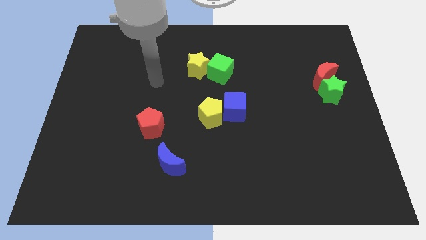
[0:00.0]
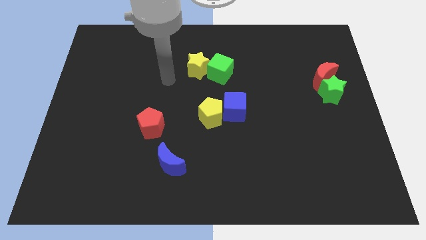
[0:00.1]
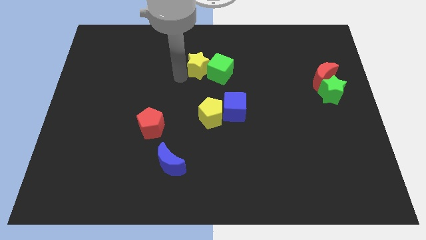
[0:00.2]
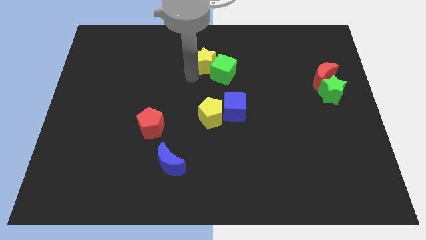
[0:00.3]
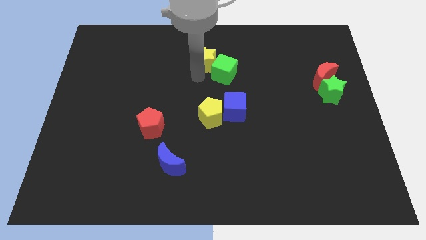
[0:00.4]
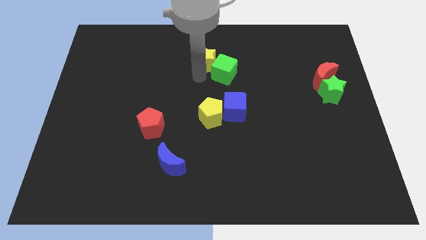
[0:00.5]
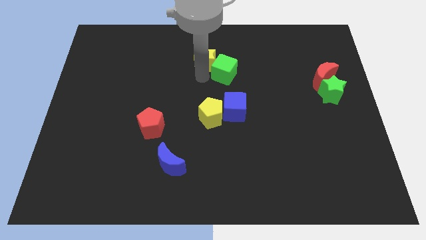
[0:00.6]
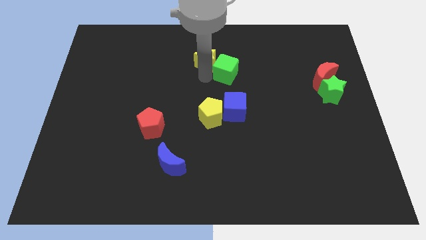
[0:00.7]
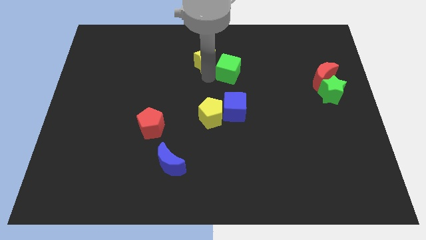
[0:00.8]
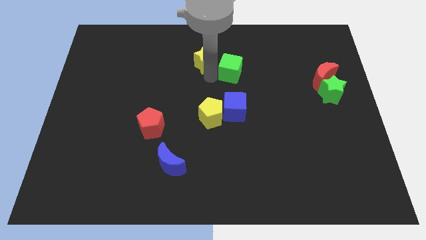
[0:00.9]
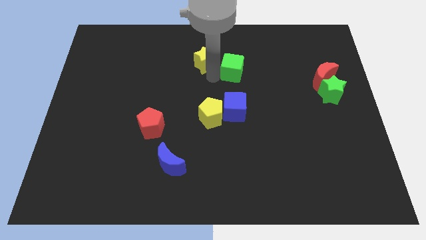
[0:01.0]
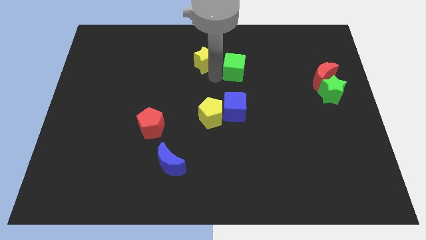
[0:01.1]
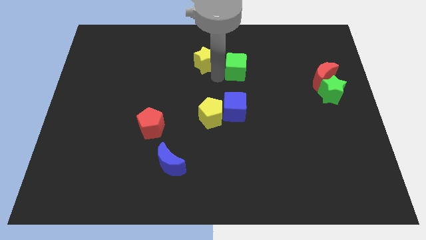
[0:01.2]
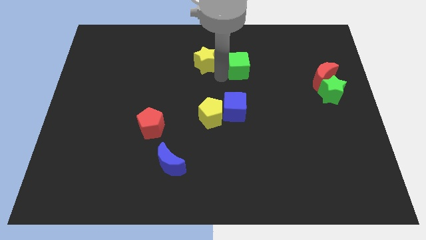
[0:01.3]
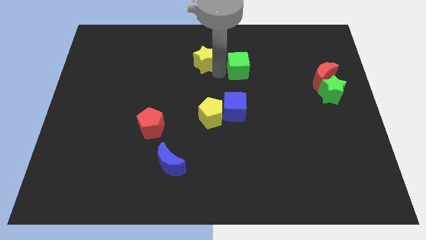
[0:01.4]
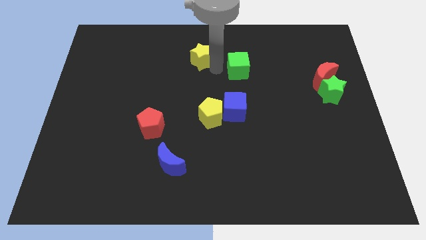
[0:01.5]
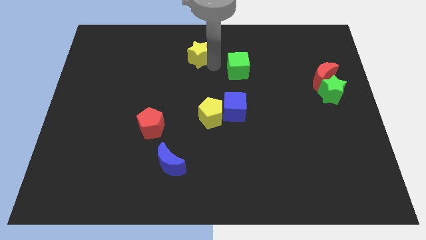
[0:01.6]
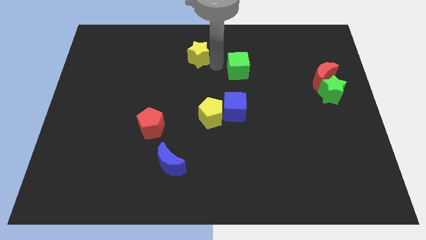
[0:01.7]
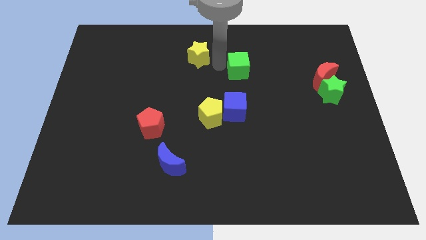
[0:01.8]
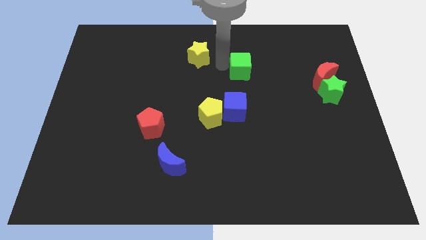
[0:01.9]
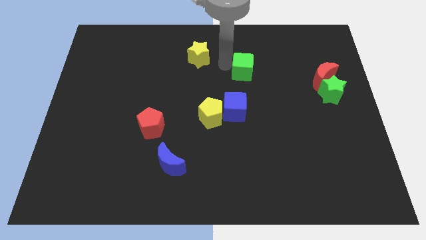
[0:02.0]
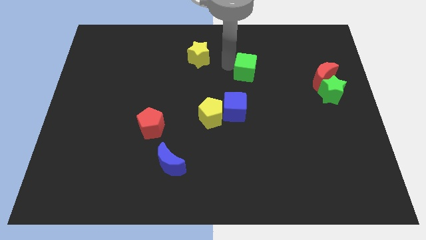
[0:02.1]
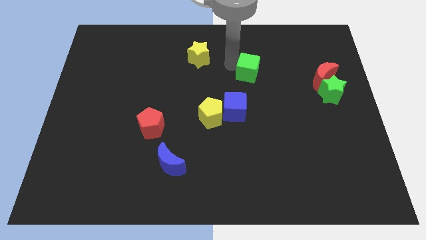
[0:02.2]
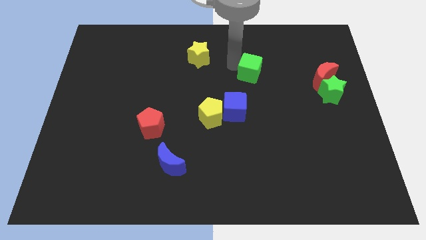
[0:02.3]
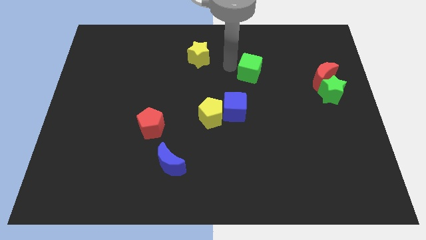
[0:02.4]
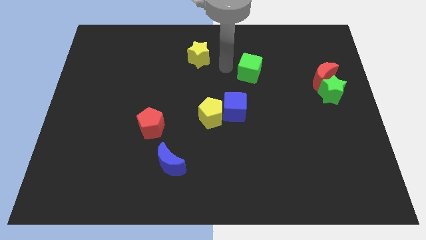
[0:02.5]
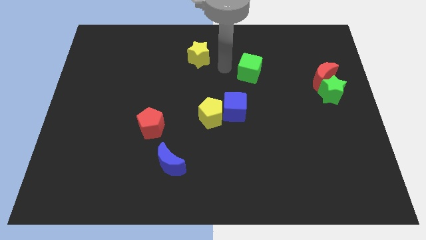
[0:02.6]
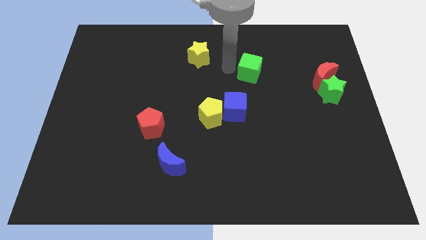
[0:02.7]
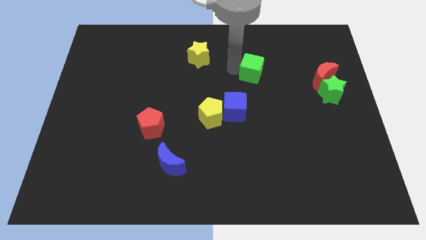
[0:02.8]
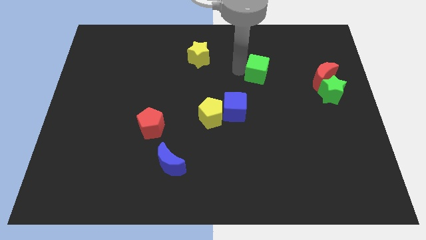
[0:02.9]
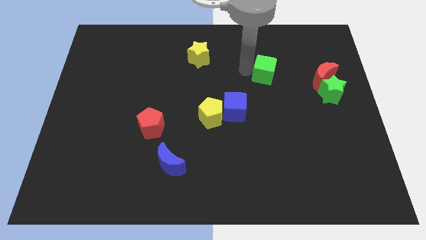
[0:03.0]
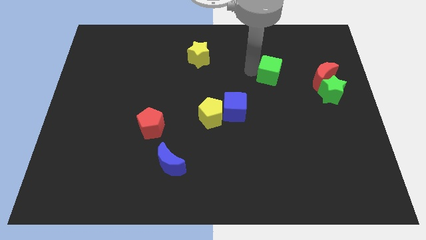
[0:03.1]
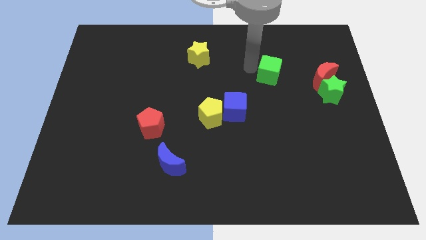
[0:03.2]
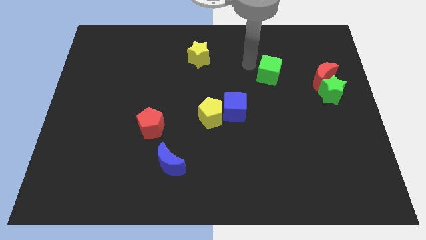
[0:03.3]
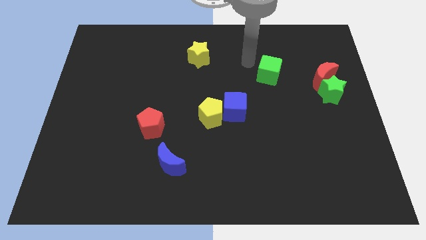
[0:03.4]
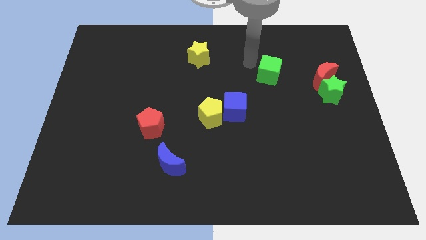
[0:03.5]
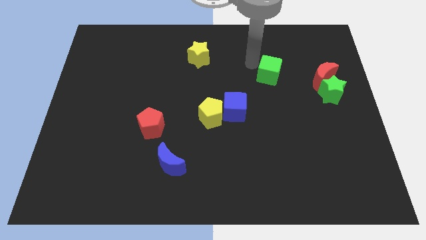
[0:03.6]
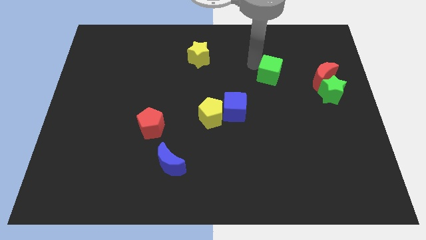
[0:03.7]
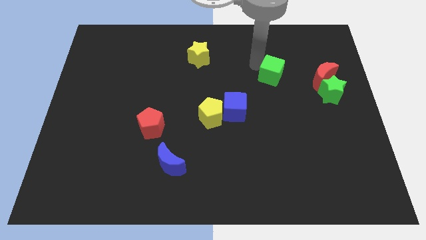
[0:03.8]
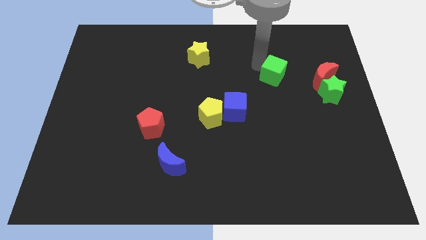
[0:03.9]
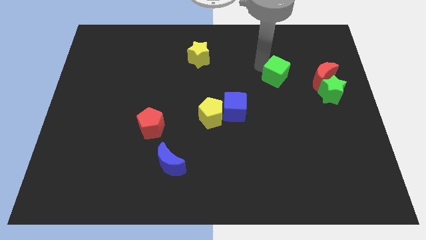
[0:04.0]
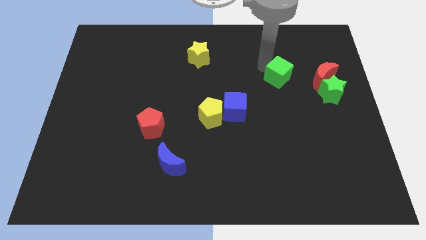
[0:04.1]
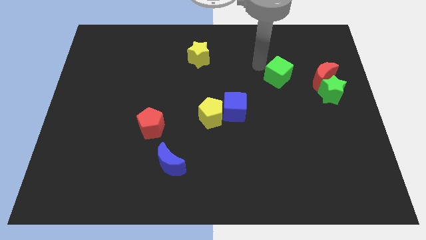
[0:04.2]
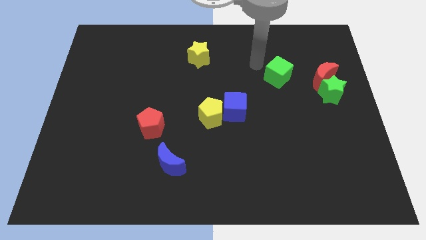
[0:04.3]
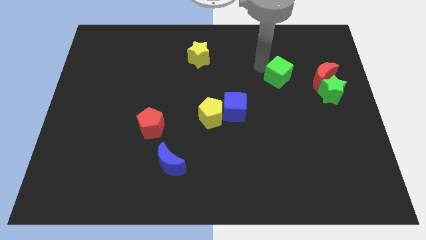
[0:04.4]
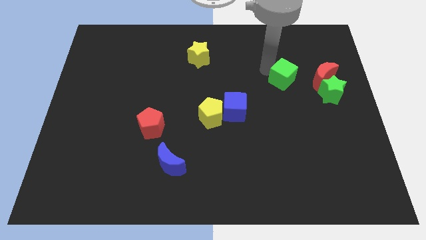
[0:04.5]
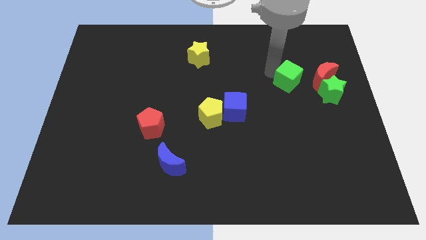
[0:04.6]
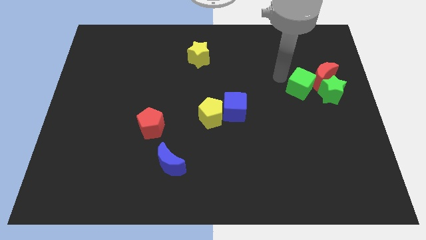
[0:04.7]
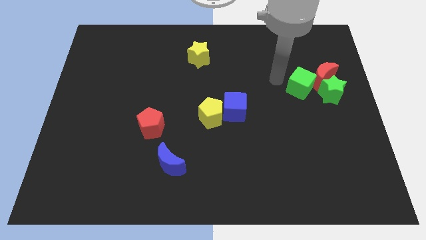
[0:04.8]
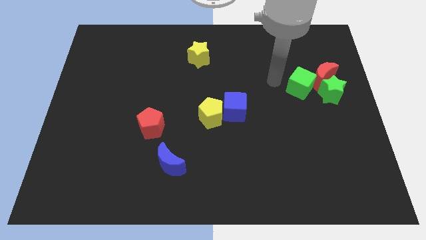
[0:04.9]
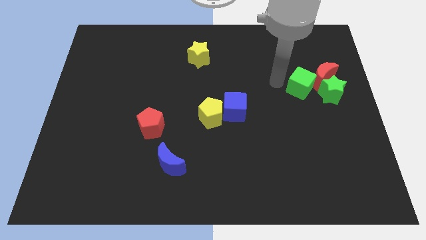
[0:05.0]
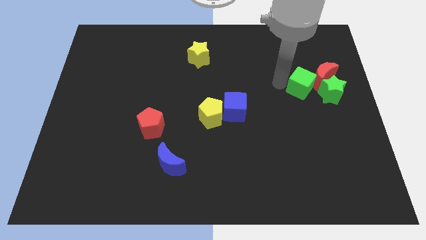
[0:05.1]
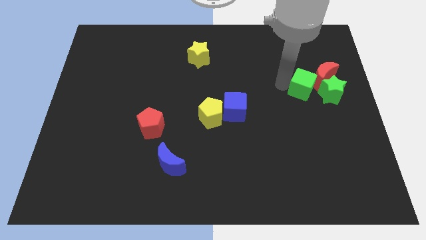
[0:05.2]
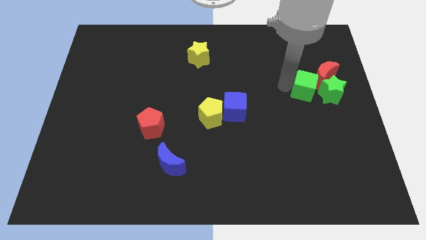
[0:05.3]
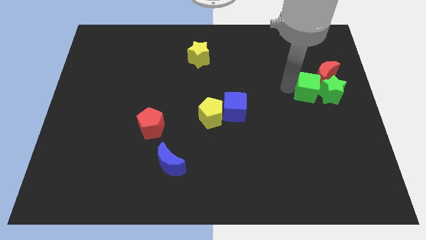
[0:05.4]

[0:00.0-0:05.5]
move the green cube to the green star

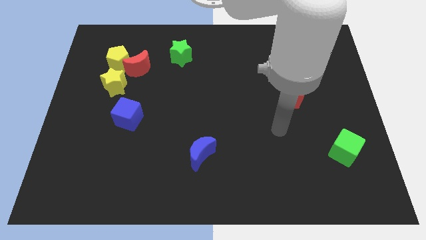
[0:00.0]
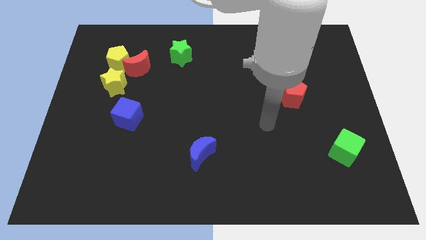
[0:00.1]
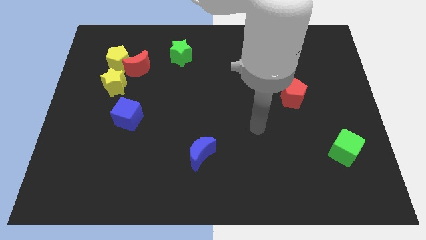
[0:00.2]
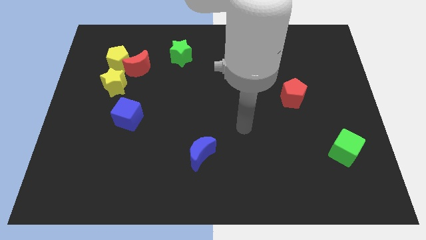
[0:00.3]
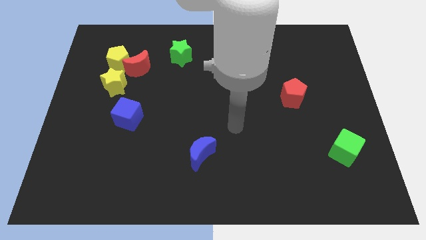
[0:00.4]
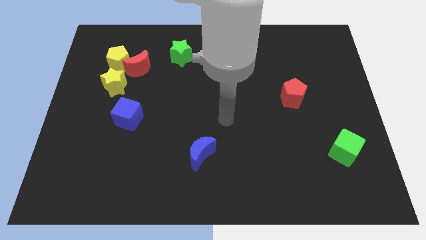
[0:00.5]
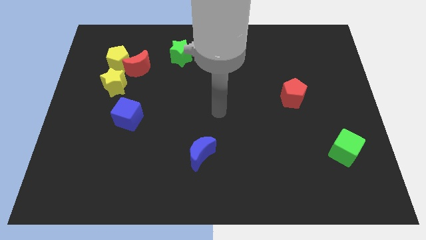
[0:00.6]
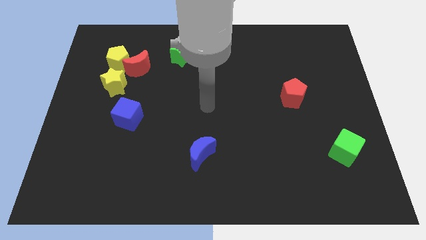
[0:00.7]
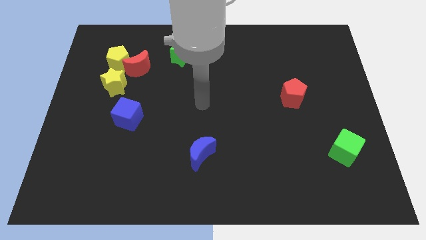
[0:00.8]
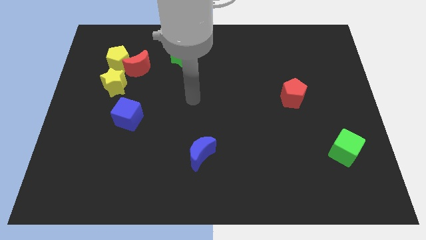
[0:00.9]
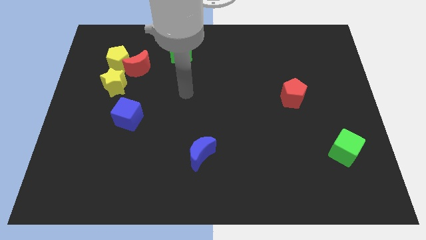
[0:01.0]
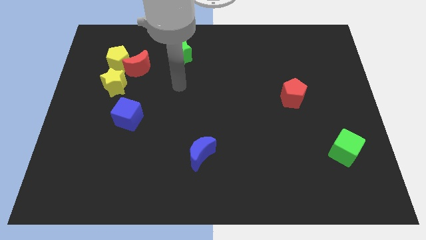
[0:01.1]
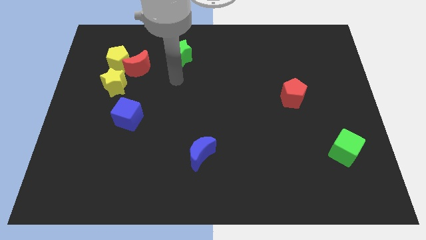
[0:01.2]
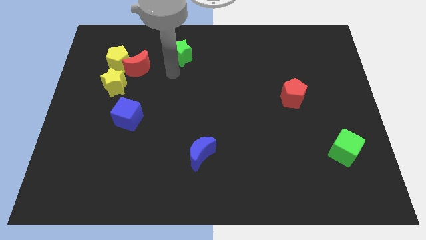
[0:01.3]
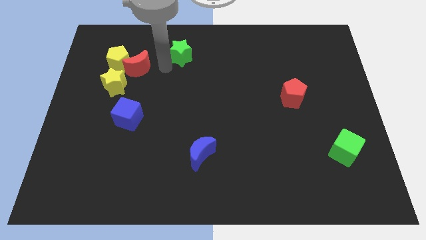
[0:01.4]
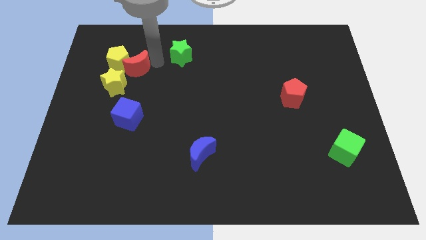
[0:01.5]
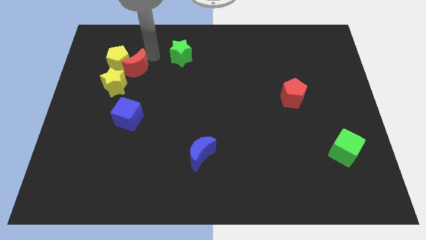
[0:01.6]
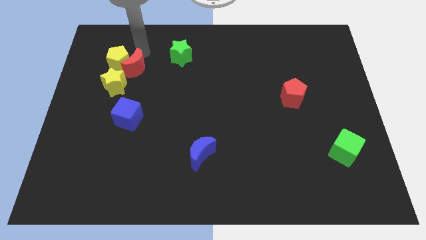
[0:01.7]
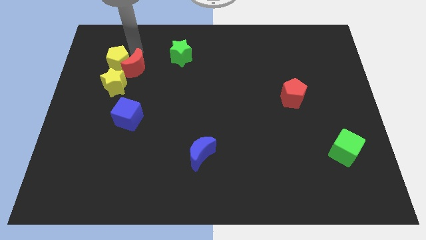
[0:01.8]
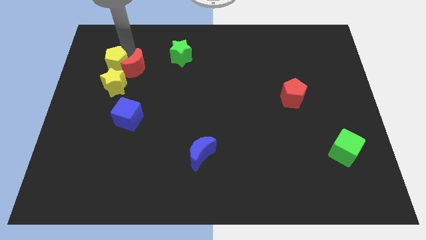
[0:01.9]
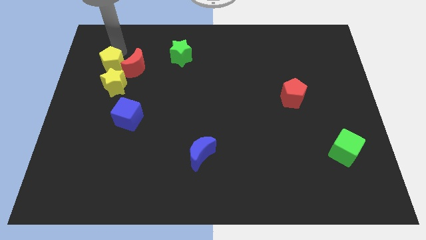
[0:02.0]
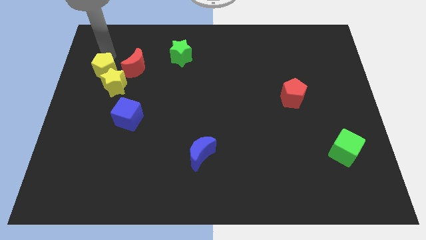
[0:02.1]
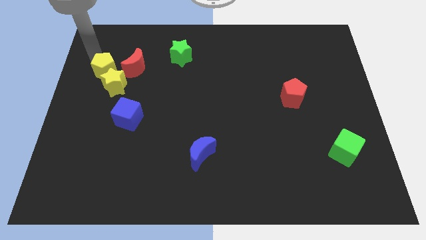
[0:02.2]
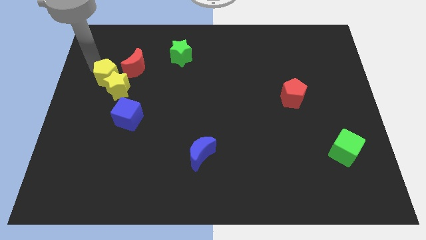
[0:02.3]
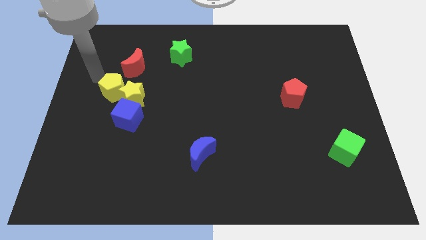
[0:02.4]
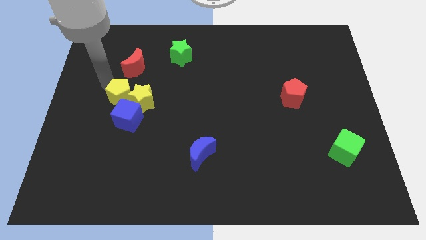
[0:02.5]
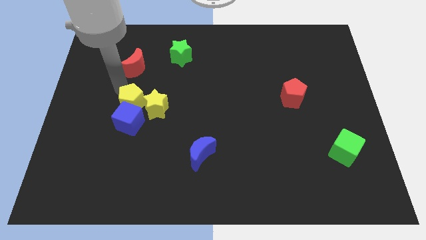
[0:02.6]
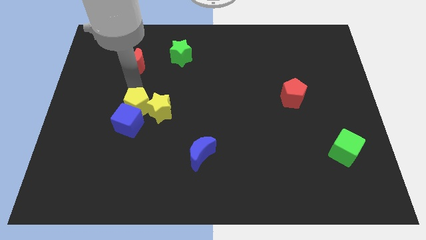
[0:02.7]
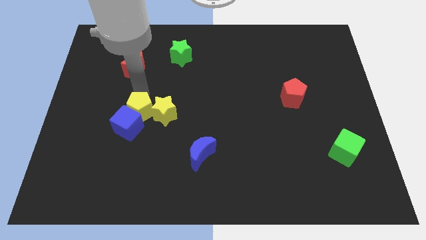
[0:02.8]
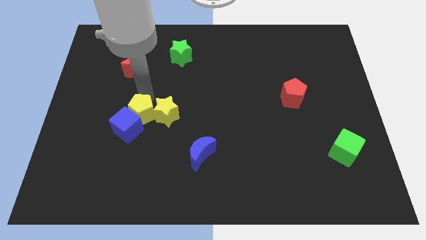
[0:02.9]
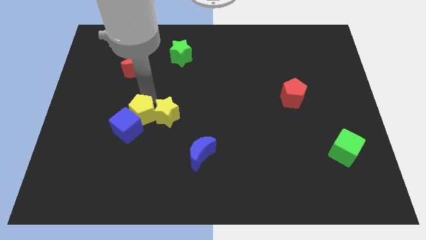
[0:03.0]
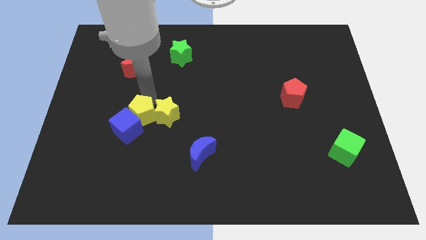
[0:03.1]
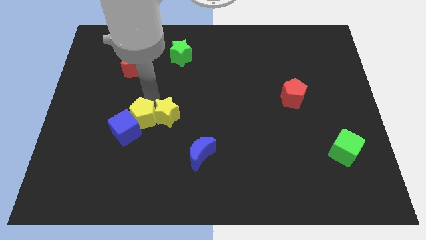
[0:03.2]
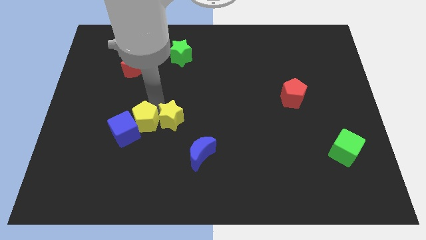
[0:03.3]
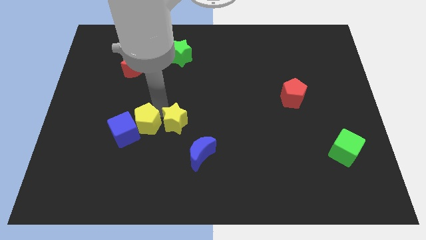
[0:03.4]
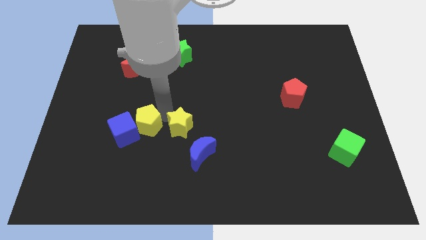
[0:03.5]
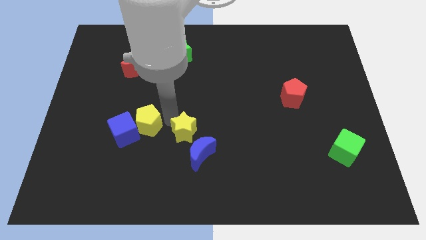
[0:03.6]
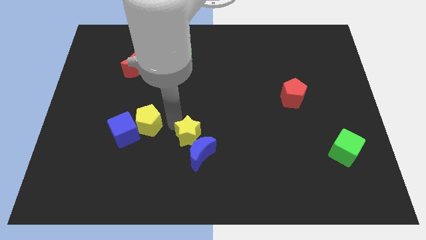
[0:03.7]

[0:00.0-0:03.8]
push the yellow star close to the blue moon
